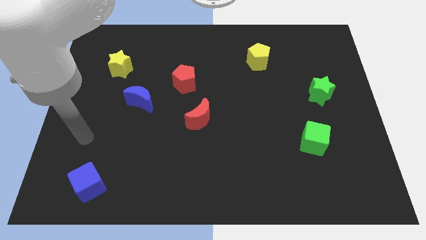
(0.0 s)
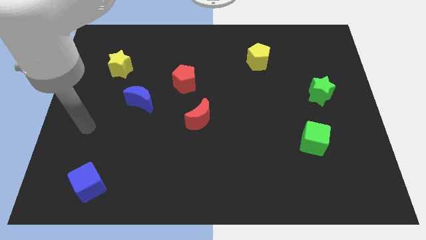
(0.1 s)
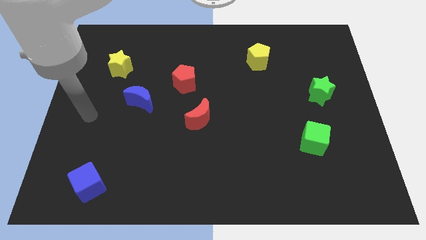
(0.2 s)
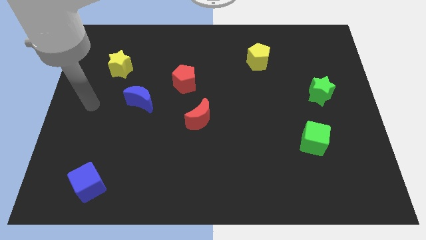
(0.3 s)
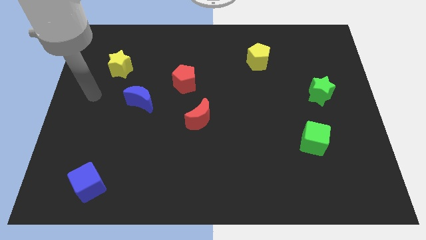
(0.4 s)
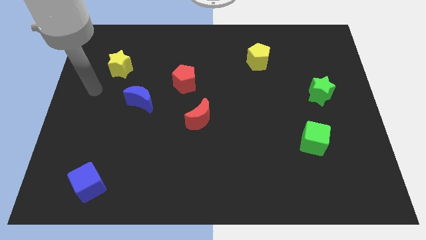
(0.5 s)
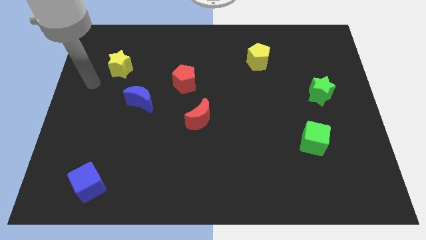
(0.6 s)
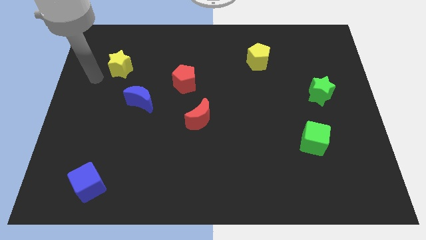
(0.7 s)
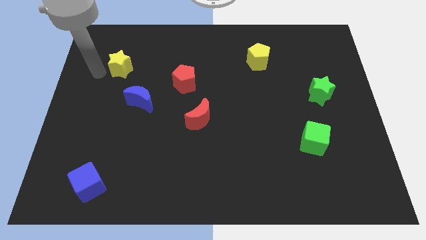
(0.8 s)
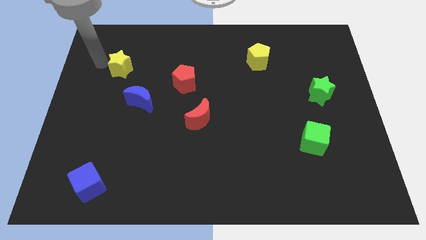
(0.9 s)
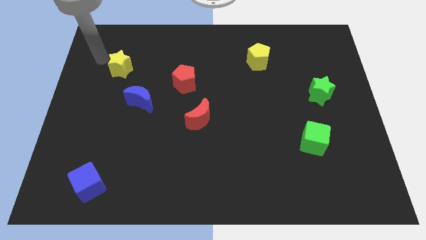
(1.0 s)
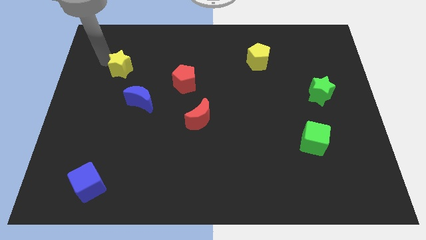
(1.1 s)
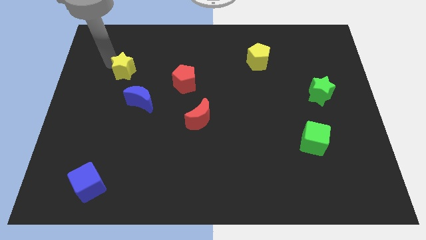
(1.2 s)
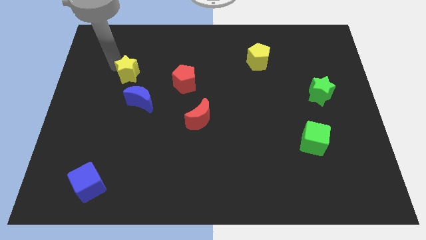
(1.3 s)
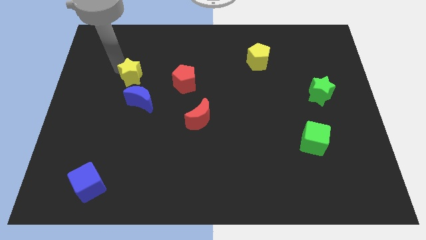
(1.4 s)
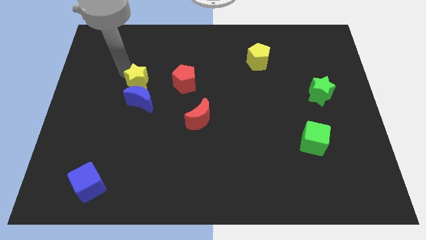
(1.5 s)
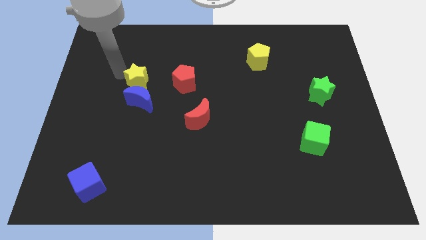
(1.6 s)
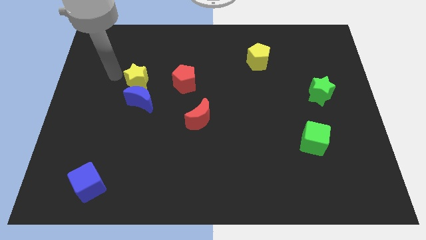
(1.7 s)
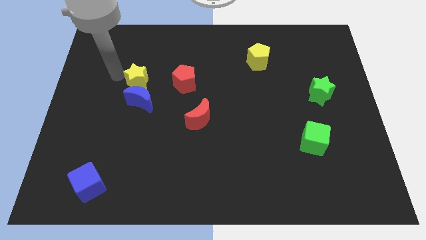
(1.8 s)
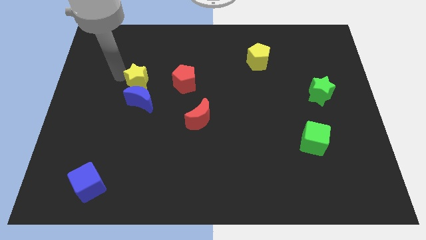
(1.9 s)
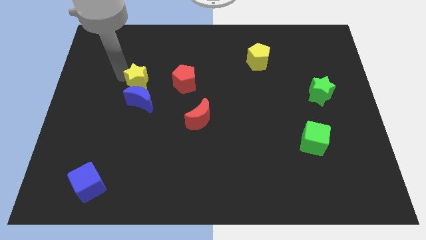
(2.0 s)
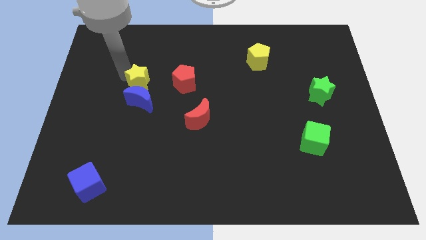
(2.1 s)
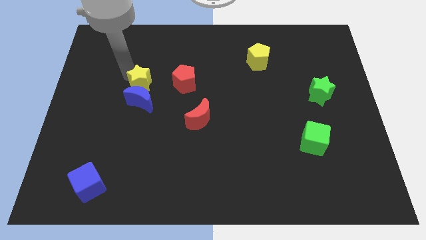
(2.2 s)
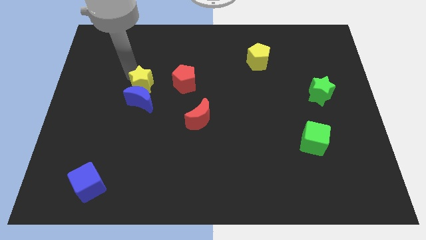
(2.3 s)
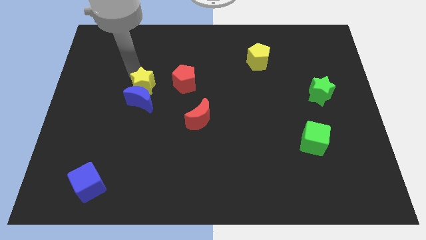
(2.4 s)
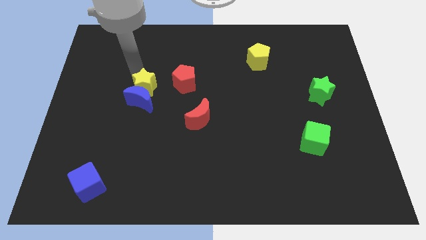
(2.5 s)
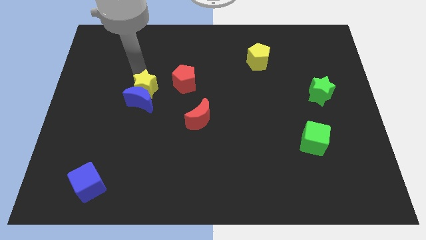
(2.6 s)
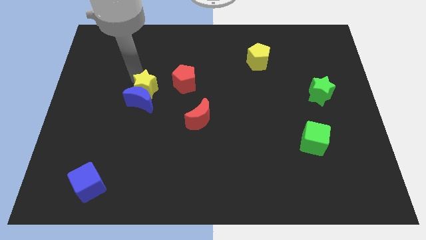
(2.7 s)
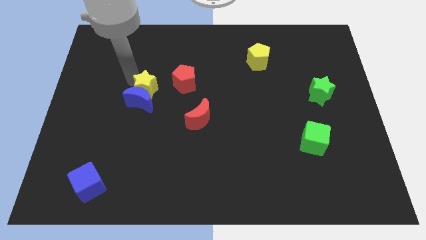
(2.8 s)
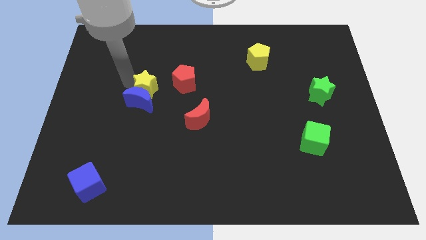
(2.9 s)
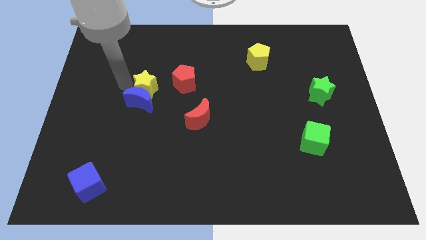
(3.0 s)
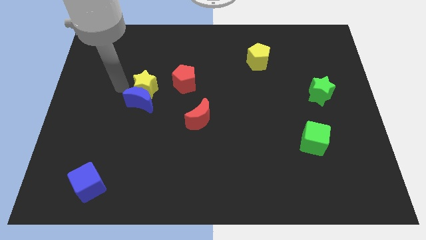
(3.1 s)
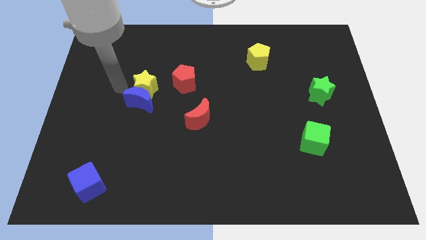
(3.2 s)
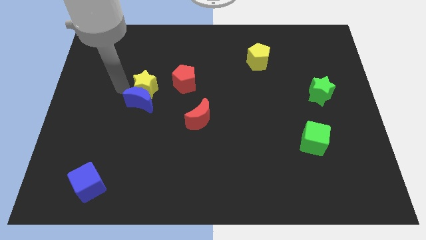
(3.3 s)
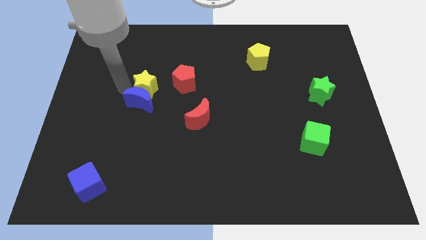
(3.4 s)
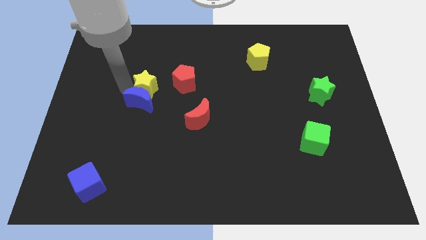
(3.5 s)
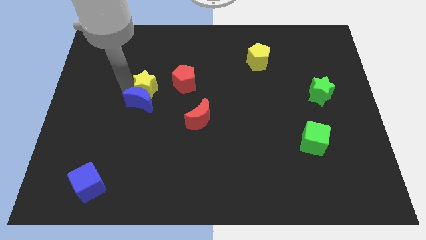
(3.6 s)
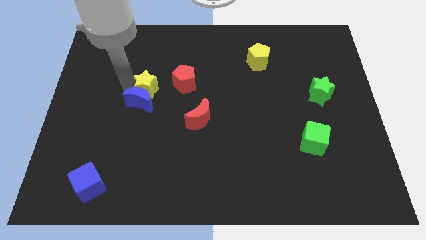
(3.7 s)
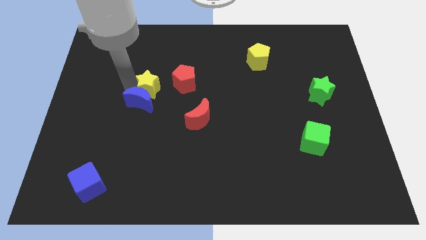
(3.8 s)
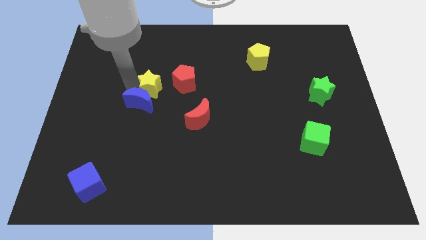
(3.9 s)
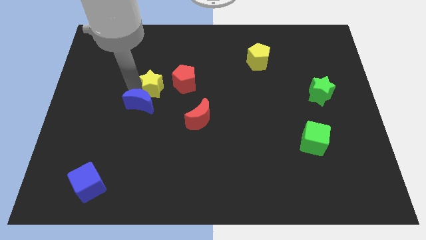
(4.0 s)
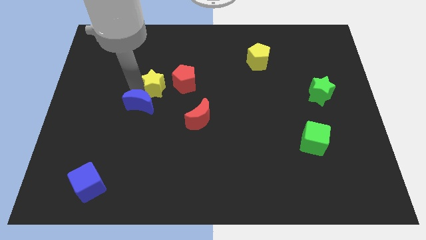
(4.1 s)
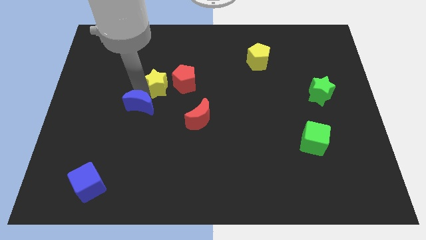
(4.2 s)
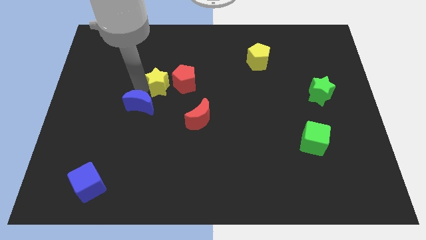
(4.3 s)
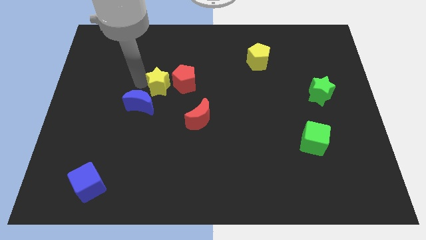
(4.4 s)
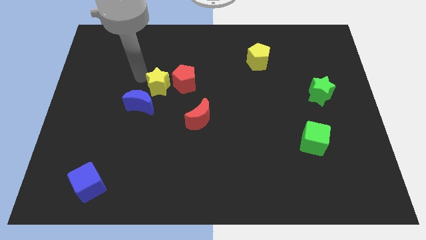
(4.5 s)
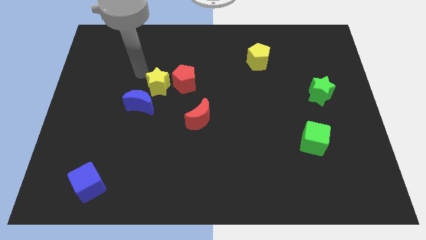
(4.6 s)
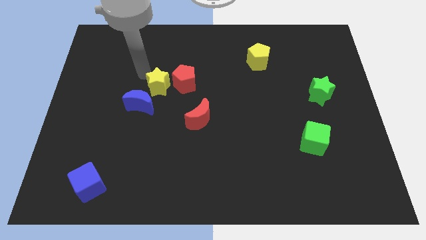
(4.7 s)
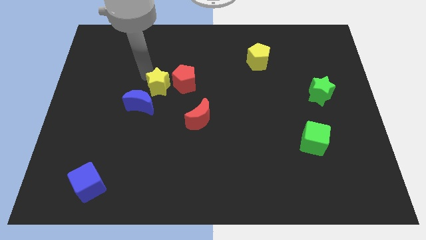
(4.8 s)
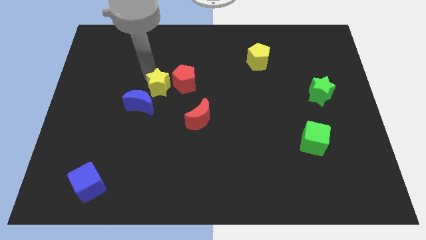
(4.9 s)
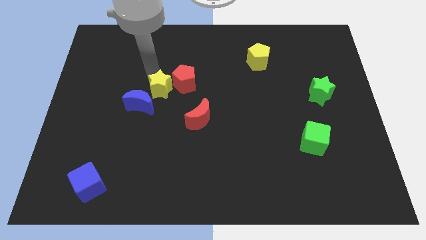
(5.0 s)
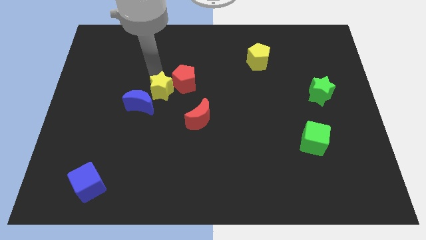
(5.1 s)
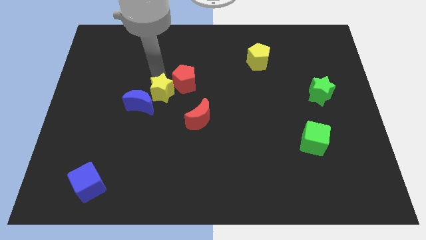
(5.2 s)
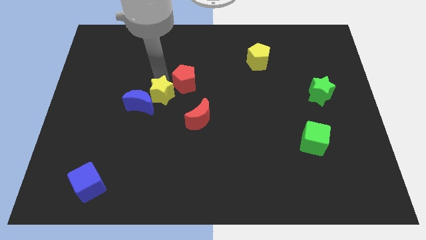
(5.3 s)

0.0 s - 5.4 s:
slide the yellow star to the center of the board

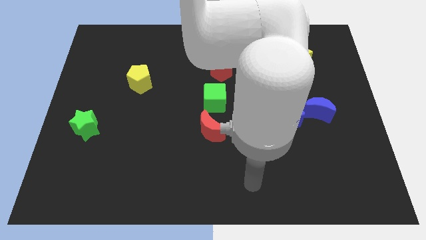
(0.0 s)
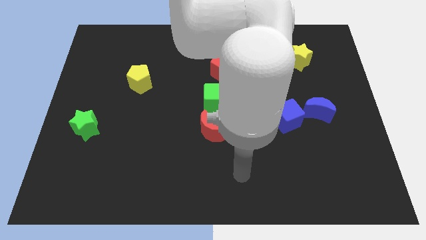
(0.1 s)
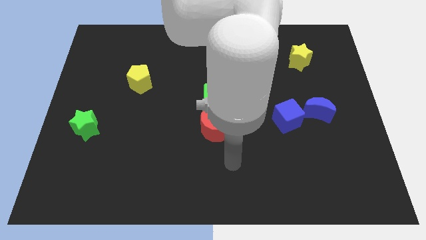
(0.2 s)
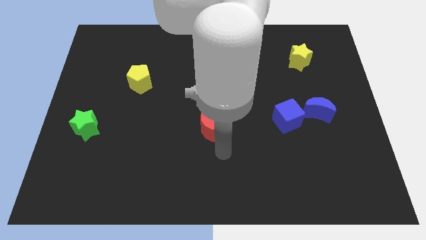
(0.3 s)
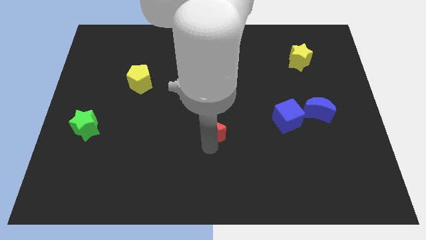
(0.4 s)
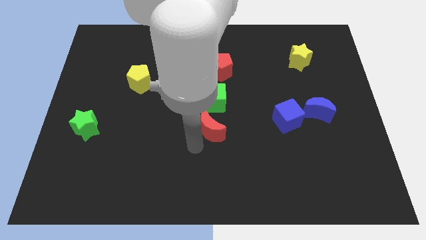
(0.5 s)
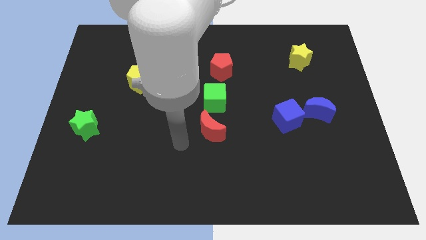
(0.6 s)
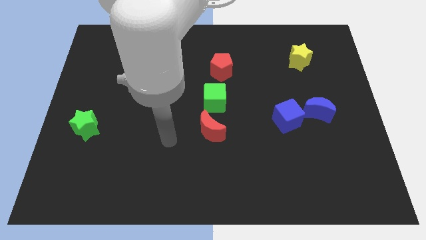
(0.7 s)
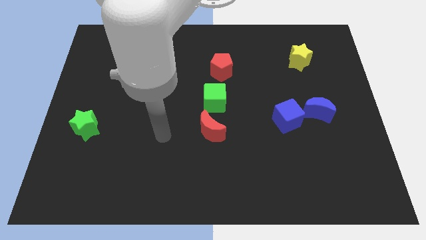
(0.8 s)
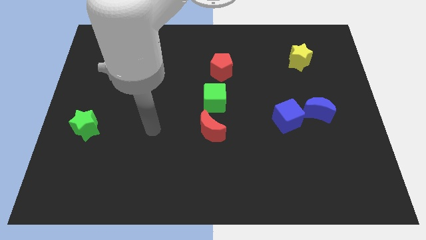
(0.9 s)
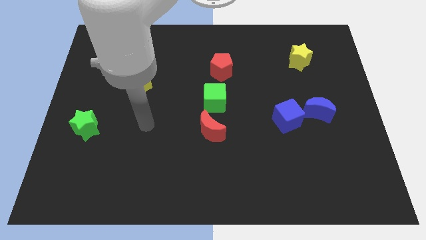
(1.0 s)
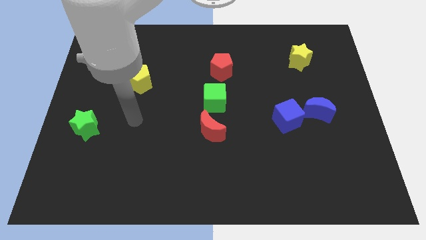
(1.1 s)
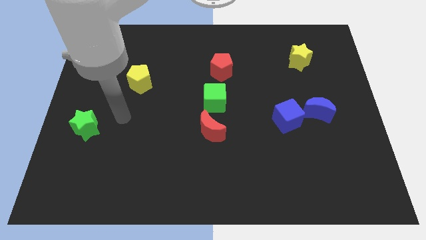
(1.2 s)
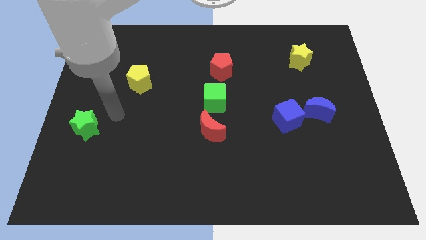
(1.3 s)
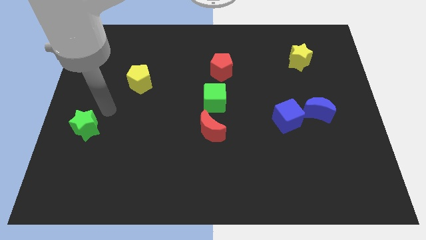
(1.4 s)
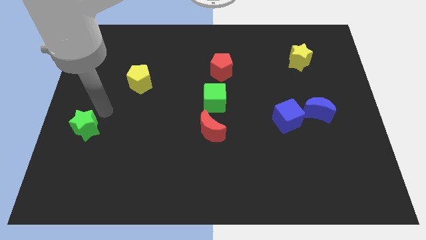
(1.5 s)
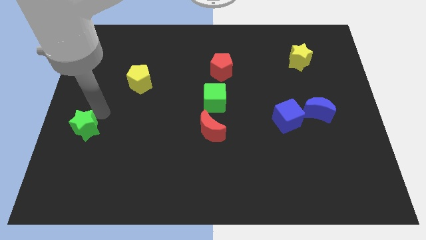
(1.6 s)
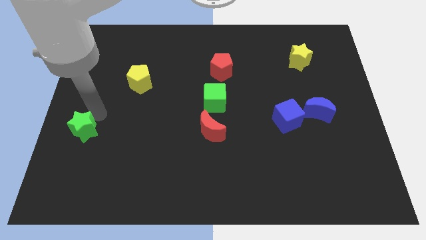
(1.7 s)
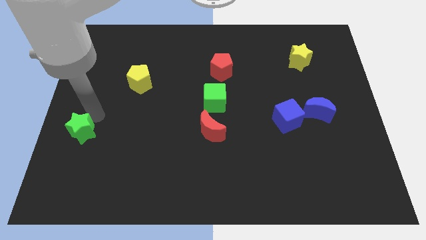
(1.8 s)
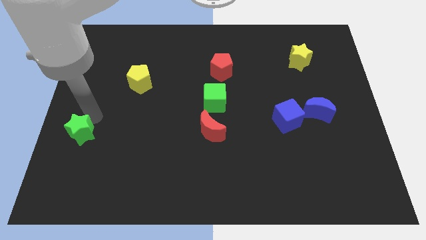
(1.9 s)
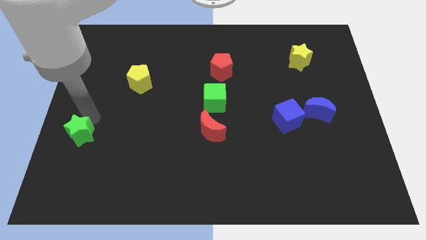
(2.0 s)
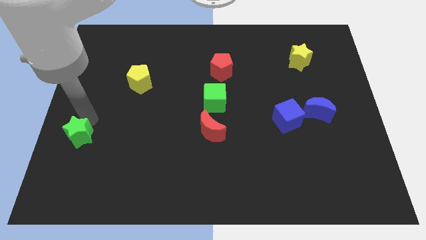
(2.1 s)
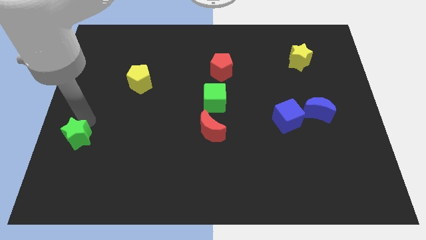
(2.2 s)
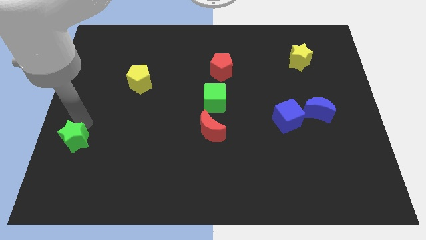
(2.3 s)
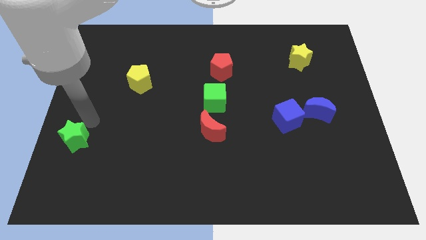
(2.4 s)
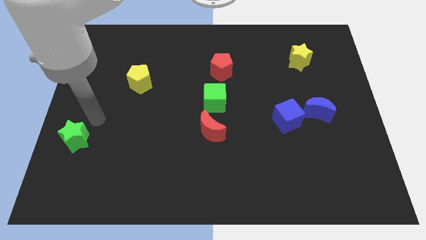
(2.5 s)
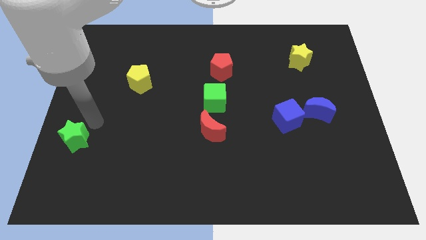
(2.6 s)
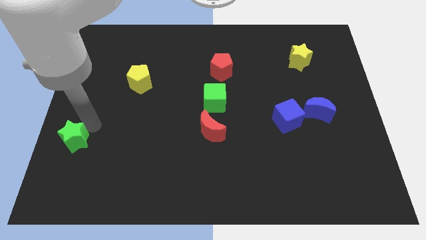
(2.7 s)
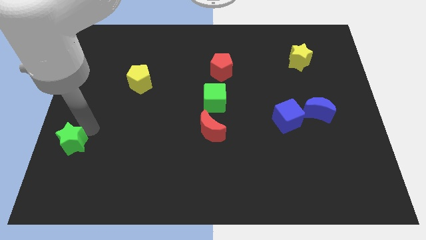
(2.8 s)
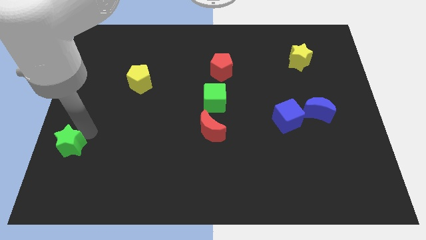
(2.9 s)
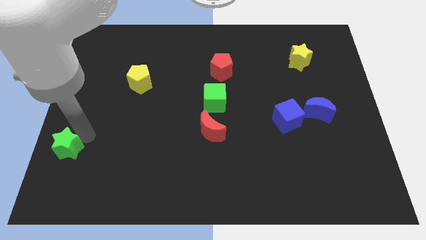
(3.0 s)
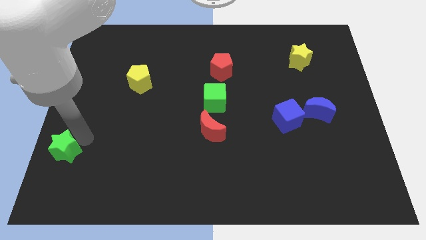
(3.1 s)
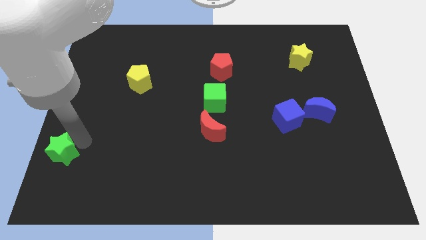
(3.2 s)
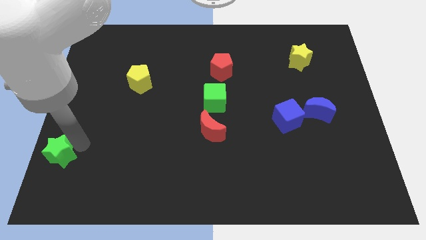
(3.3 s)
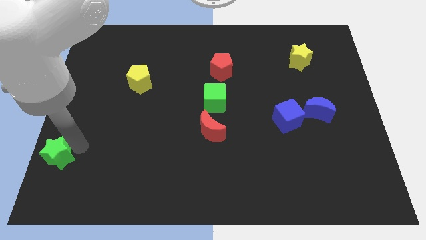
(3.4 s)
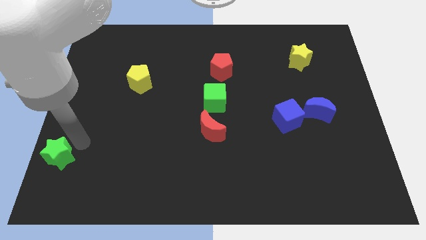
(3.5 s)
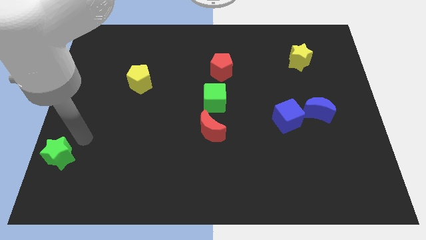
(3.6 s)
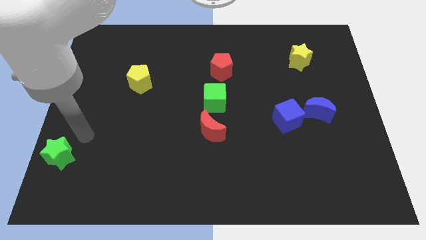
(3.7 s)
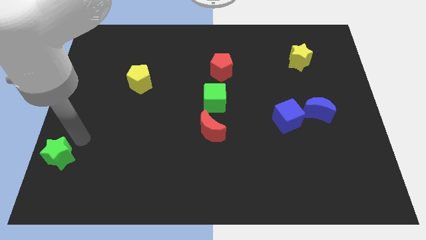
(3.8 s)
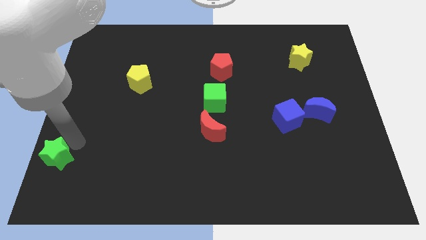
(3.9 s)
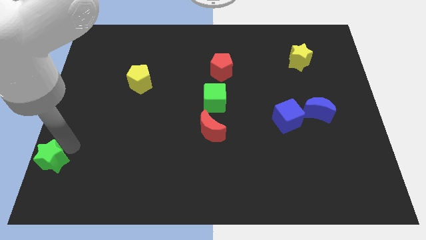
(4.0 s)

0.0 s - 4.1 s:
put the green star to the bottom left
